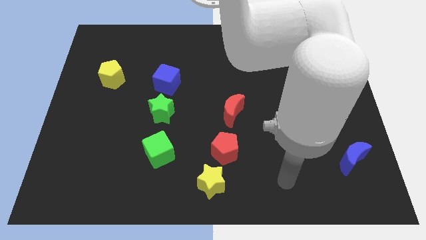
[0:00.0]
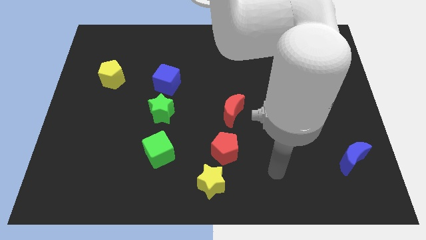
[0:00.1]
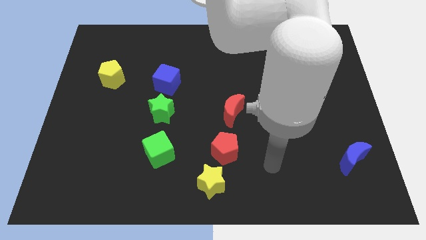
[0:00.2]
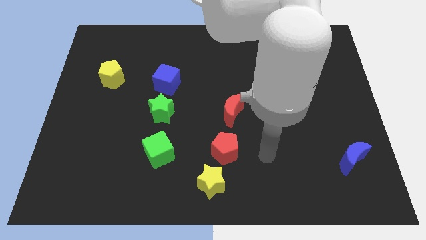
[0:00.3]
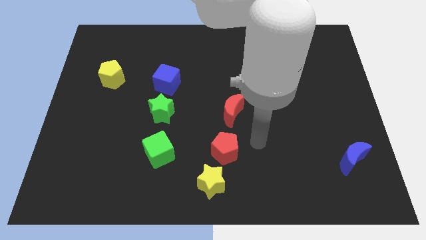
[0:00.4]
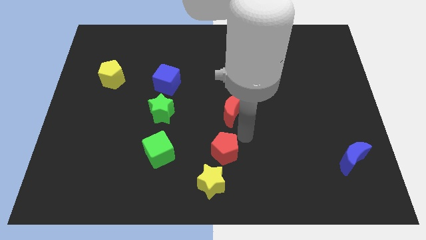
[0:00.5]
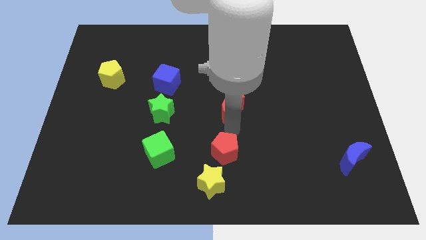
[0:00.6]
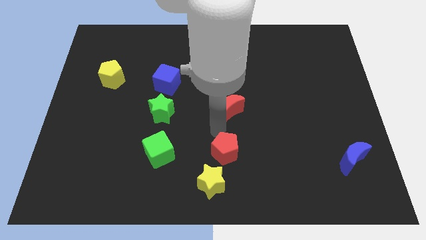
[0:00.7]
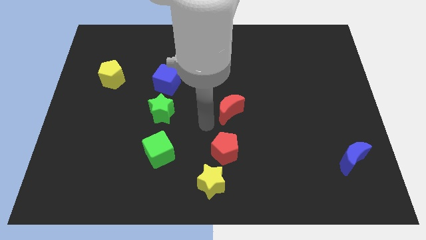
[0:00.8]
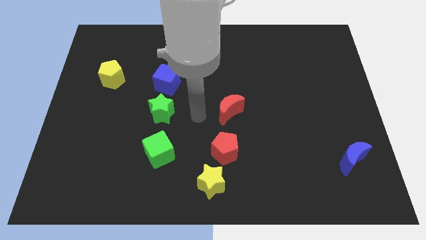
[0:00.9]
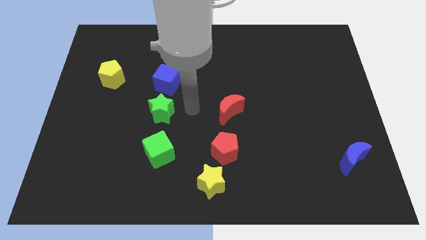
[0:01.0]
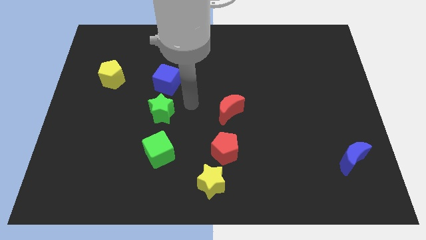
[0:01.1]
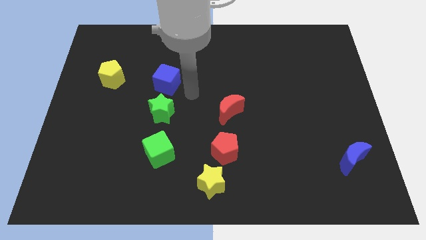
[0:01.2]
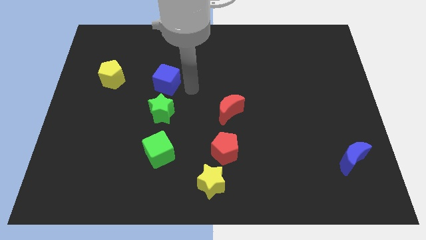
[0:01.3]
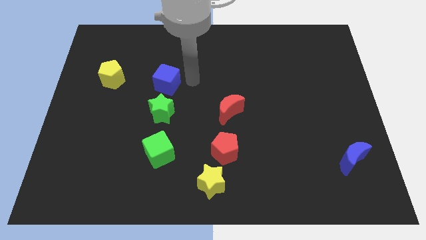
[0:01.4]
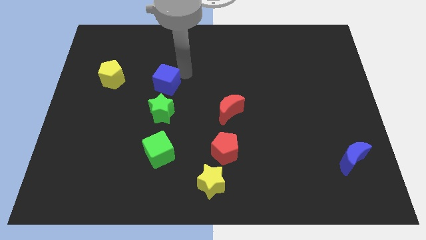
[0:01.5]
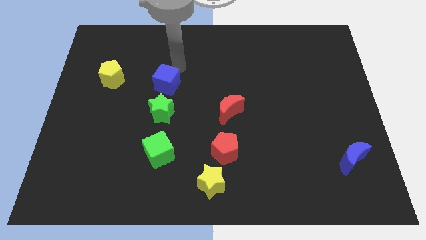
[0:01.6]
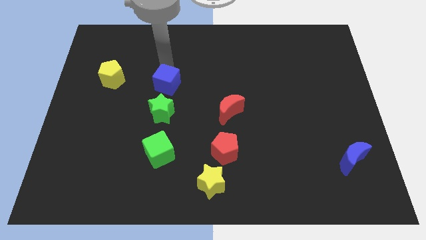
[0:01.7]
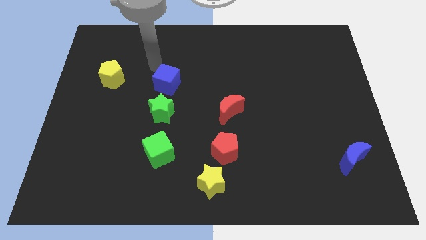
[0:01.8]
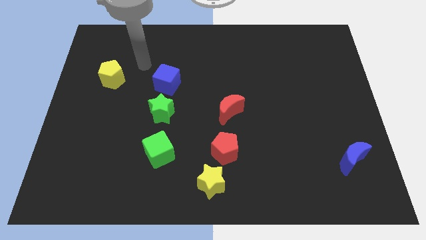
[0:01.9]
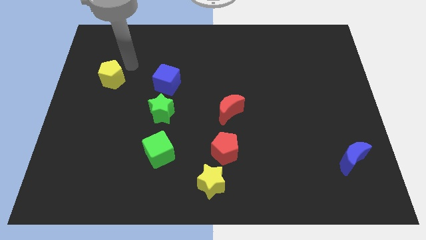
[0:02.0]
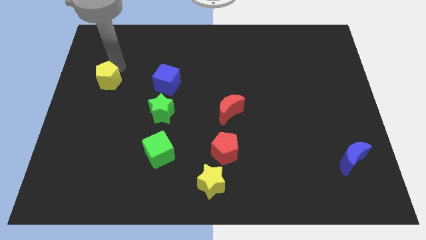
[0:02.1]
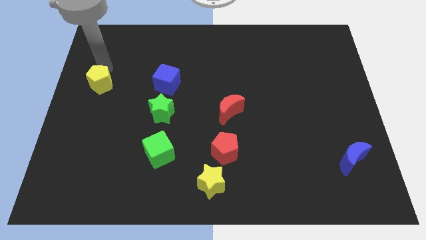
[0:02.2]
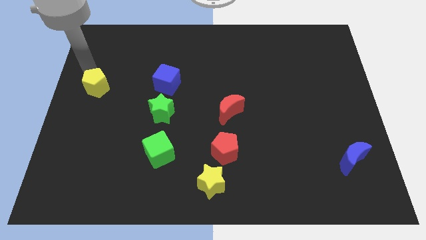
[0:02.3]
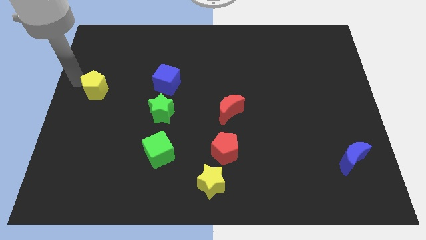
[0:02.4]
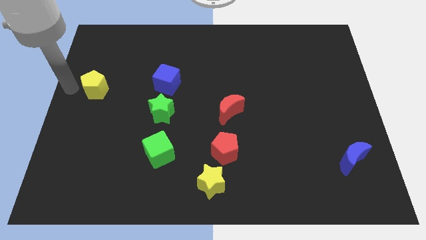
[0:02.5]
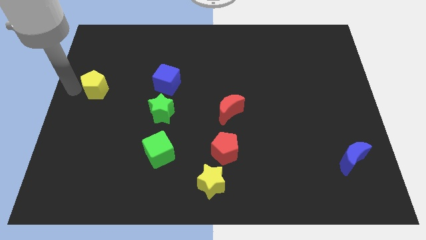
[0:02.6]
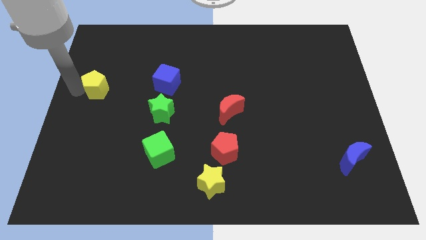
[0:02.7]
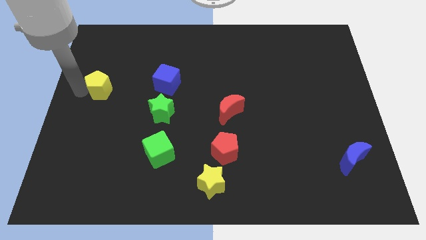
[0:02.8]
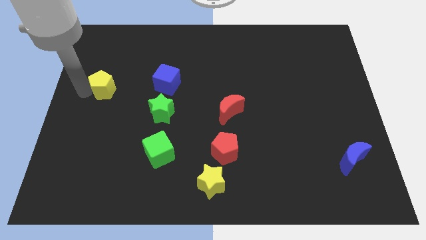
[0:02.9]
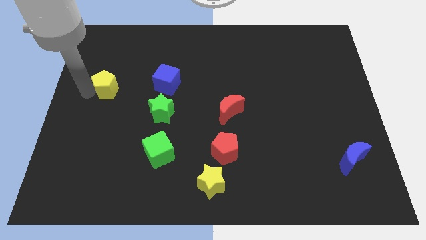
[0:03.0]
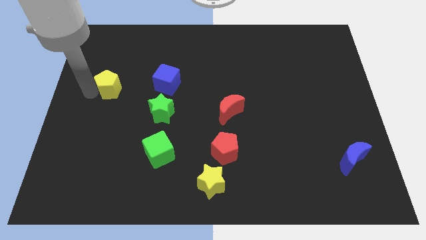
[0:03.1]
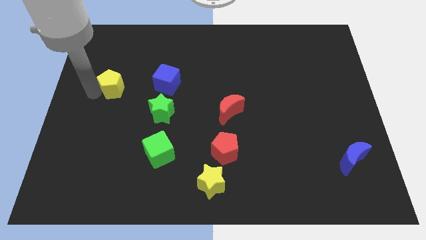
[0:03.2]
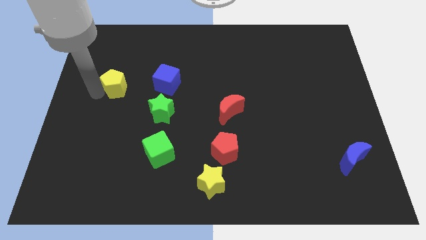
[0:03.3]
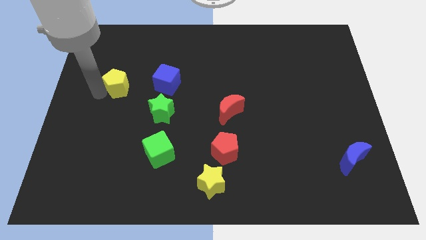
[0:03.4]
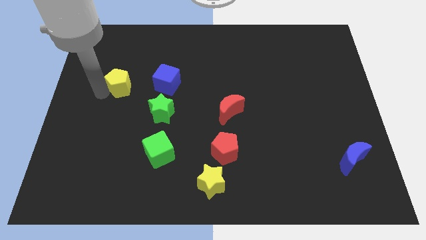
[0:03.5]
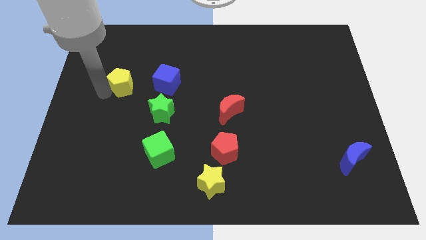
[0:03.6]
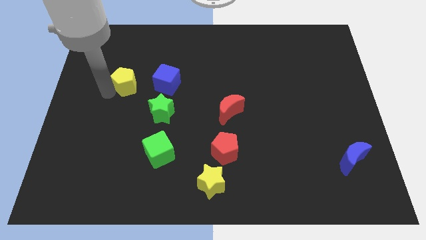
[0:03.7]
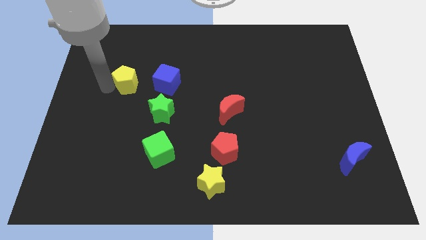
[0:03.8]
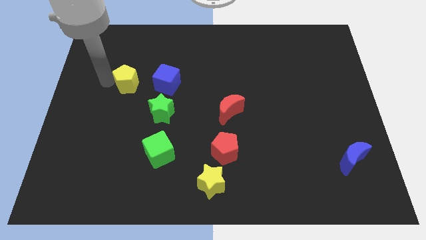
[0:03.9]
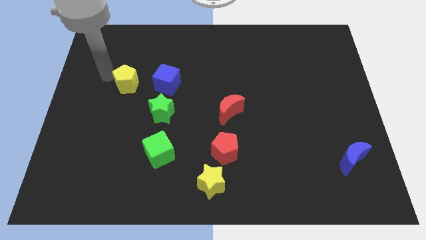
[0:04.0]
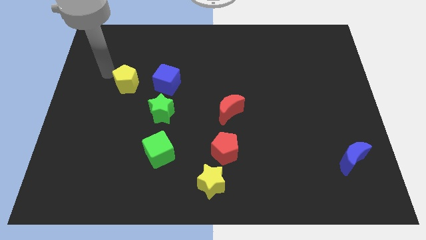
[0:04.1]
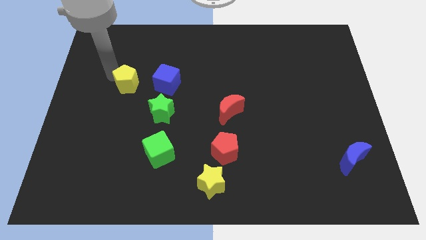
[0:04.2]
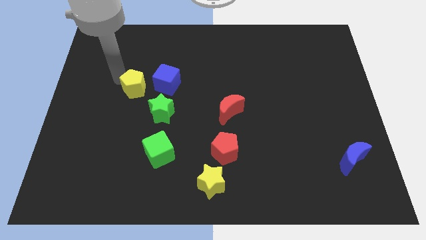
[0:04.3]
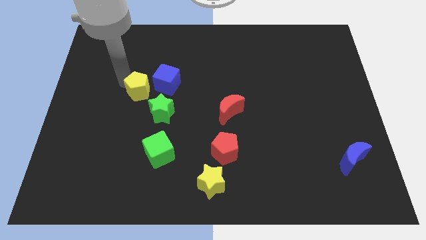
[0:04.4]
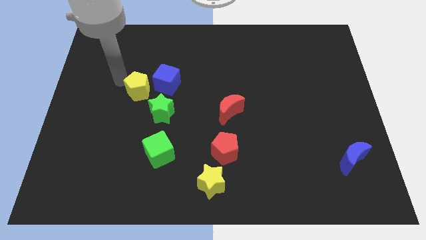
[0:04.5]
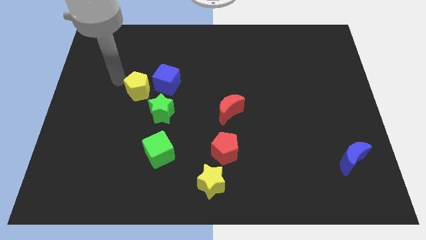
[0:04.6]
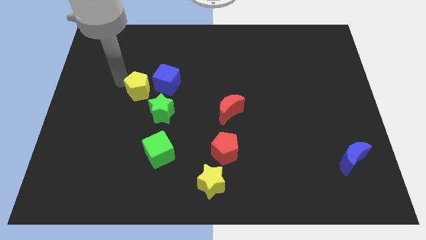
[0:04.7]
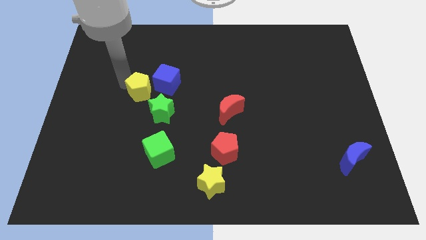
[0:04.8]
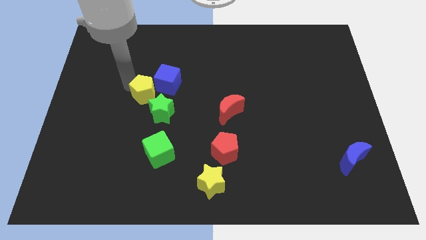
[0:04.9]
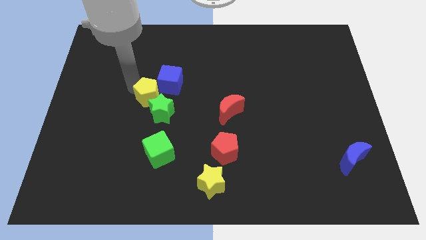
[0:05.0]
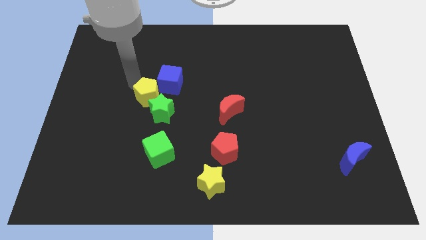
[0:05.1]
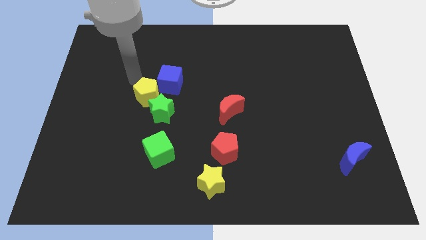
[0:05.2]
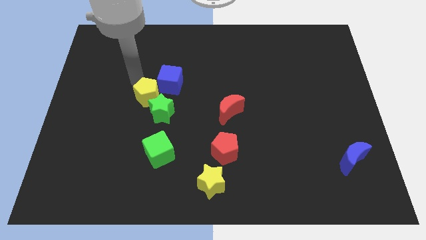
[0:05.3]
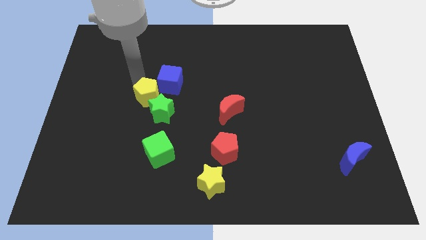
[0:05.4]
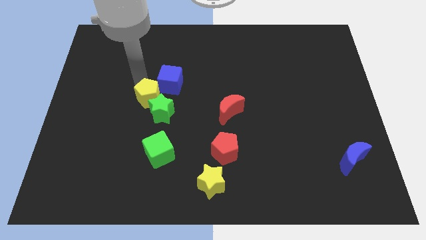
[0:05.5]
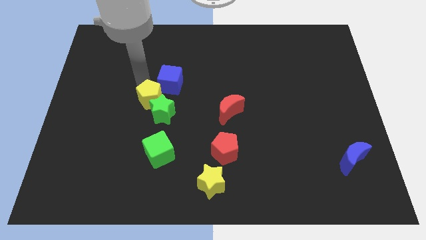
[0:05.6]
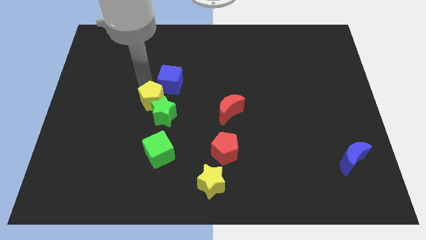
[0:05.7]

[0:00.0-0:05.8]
push the yellow pentagon to the top of the green cube

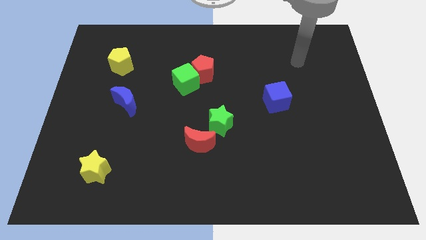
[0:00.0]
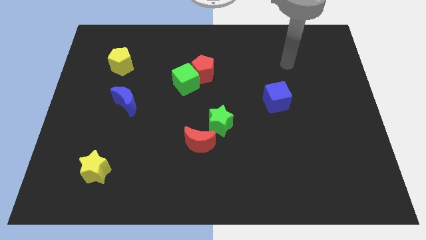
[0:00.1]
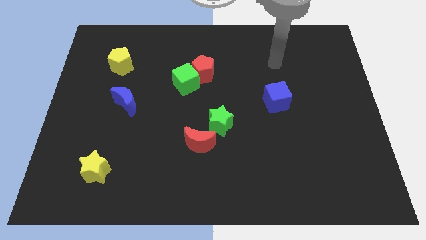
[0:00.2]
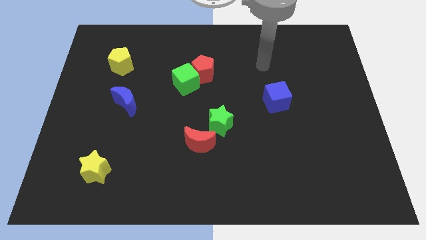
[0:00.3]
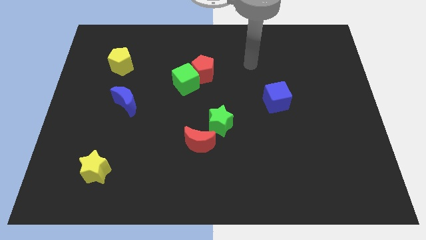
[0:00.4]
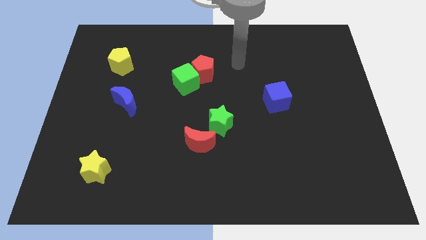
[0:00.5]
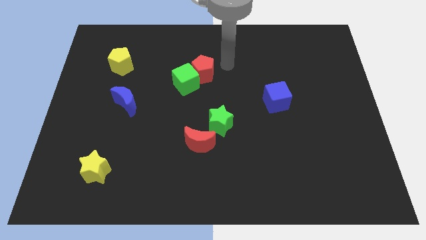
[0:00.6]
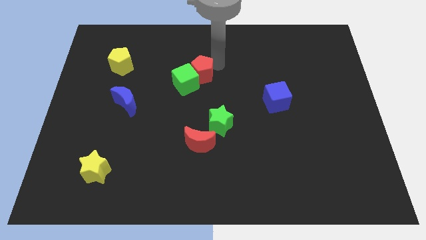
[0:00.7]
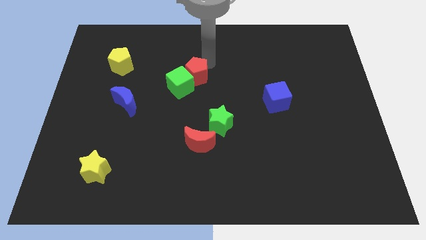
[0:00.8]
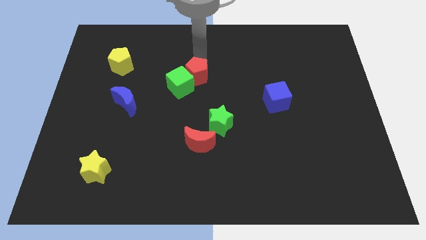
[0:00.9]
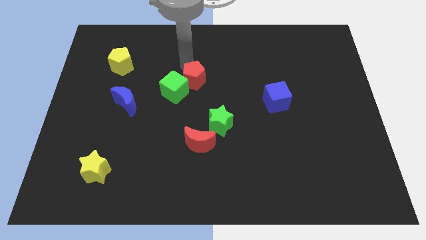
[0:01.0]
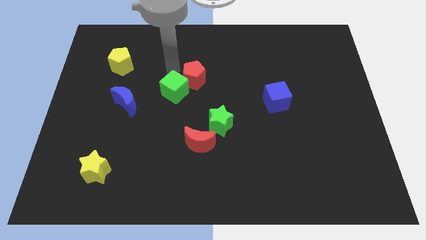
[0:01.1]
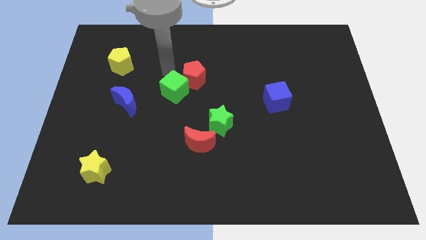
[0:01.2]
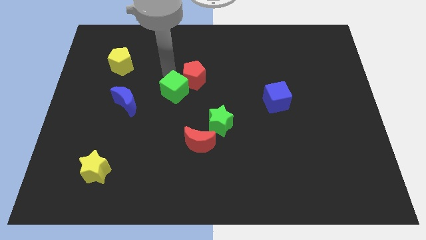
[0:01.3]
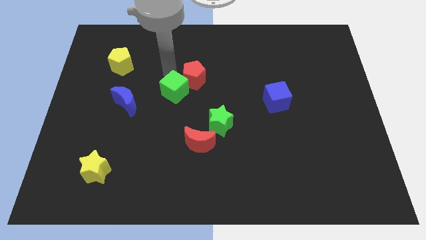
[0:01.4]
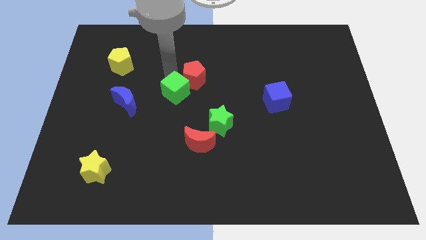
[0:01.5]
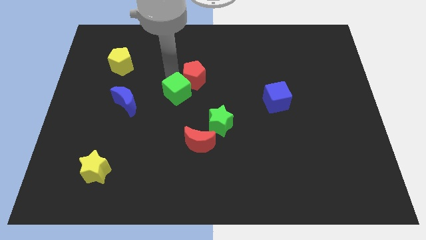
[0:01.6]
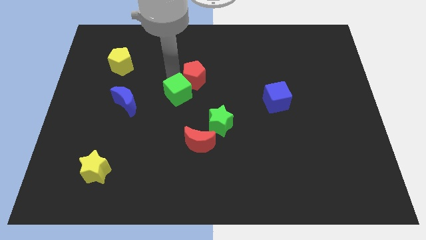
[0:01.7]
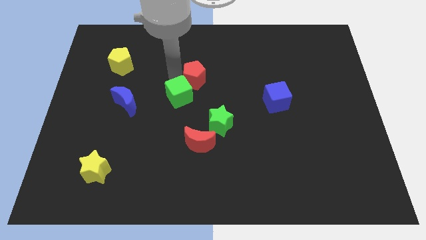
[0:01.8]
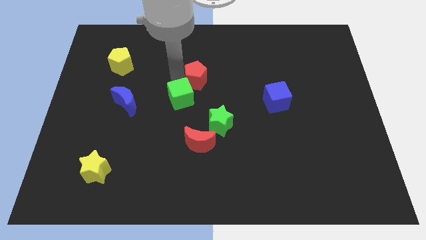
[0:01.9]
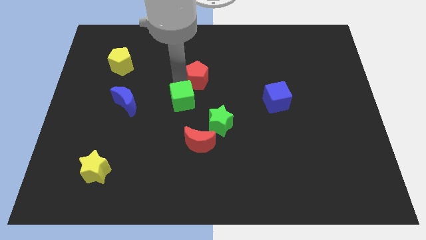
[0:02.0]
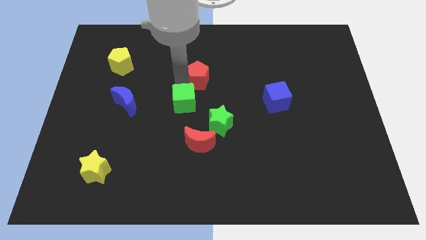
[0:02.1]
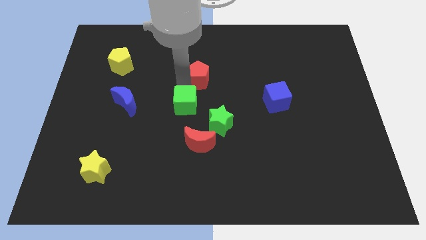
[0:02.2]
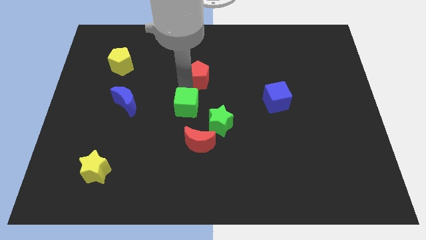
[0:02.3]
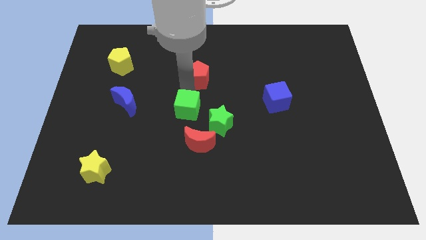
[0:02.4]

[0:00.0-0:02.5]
slide the green cube left of the green star
